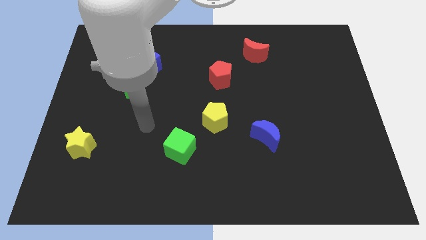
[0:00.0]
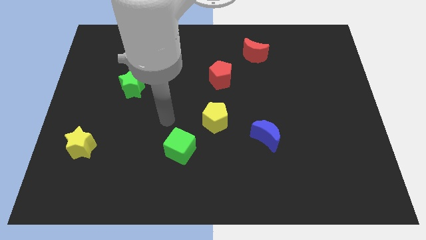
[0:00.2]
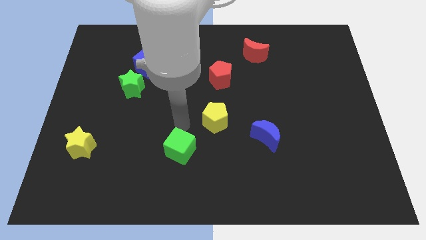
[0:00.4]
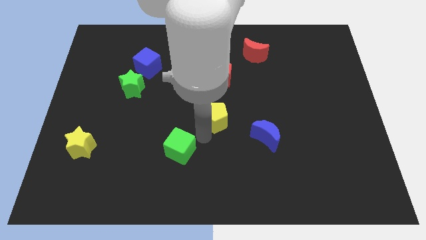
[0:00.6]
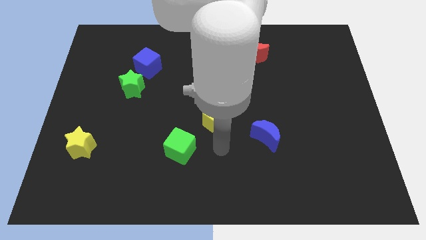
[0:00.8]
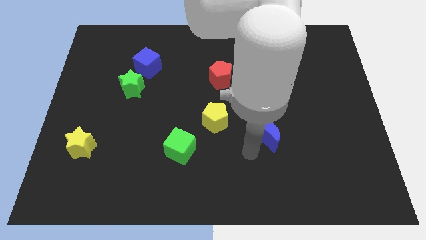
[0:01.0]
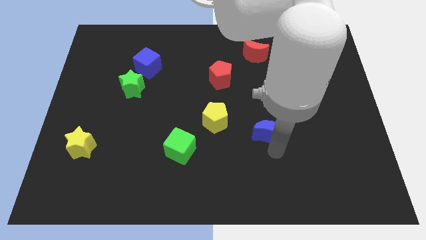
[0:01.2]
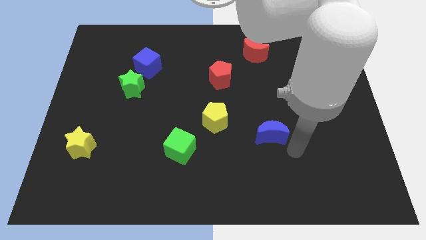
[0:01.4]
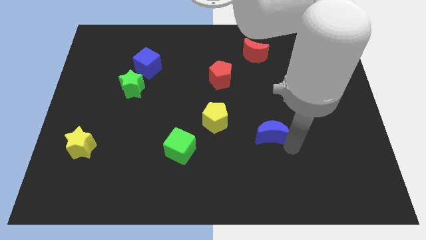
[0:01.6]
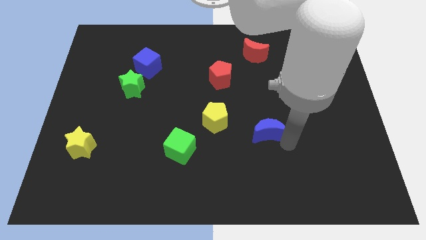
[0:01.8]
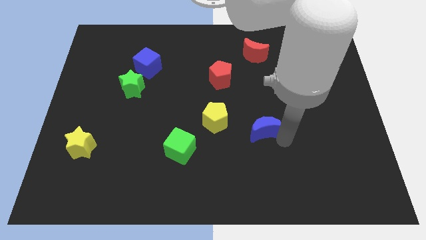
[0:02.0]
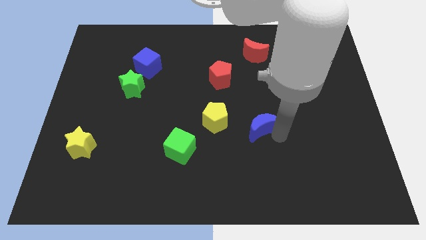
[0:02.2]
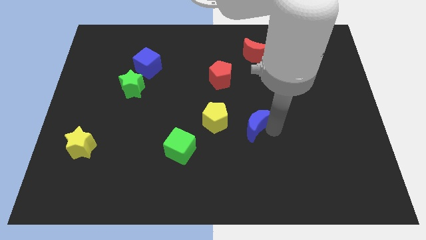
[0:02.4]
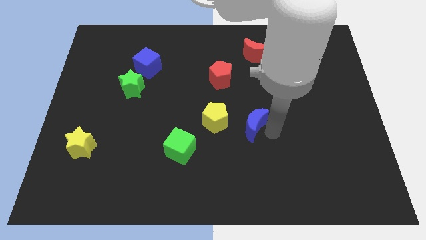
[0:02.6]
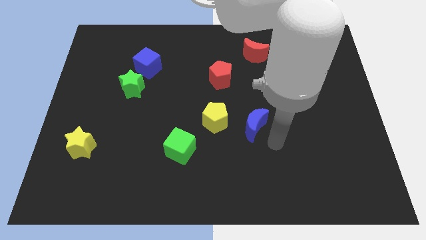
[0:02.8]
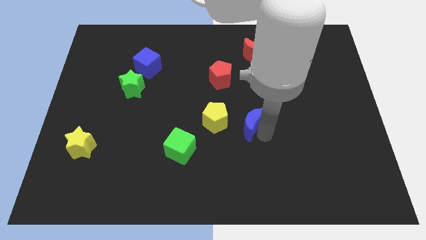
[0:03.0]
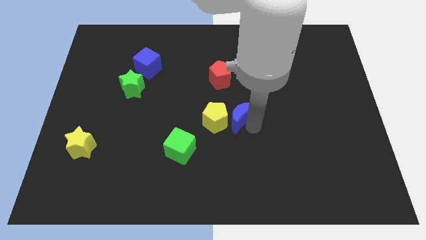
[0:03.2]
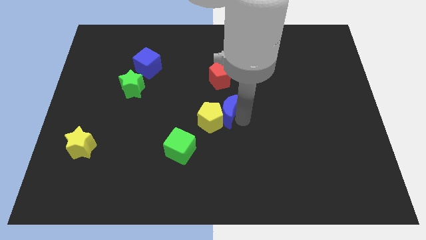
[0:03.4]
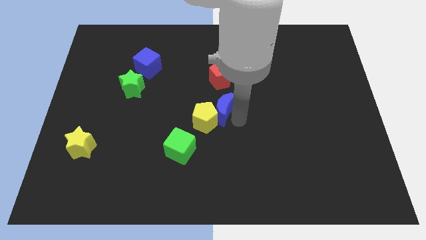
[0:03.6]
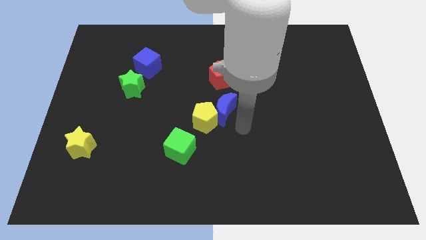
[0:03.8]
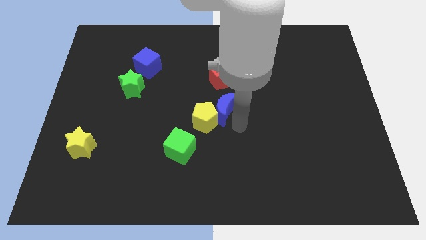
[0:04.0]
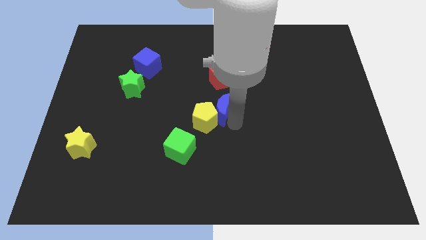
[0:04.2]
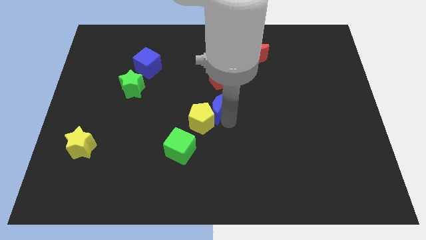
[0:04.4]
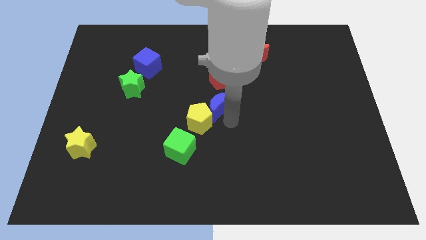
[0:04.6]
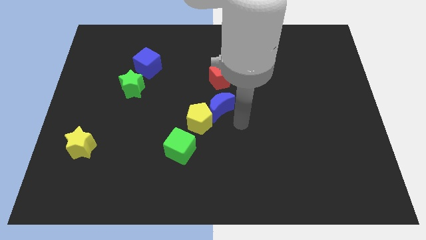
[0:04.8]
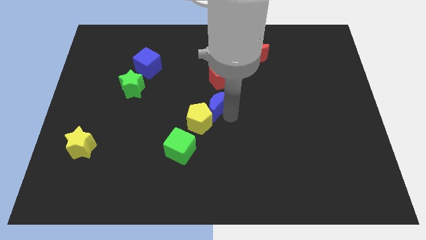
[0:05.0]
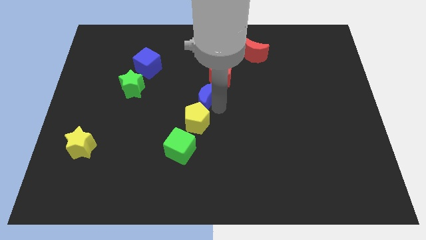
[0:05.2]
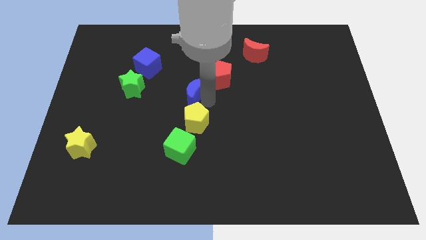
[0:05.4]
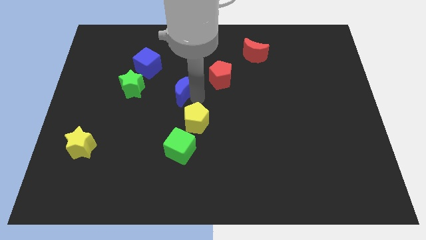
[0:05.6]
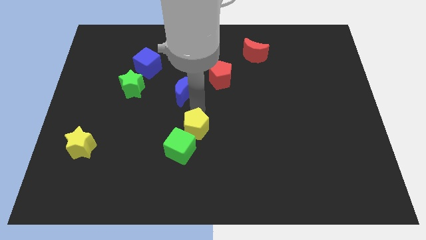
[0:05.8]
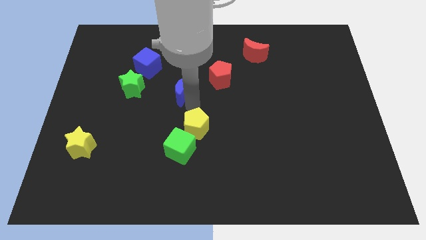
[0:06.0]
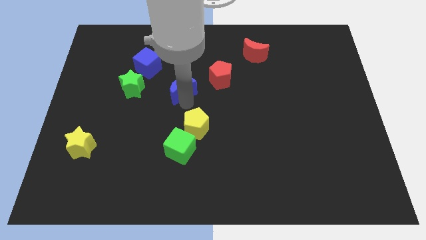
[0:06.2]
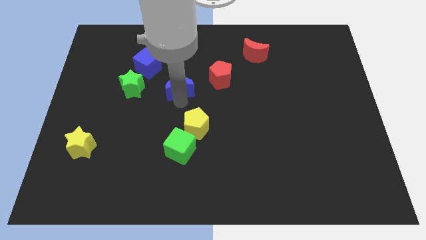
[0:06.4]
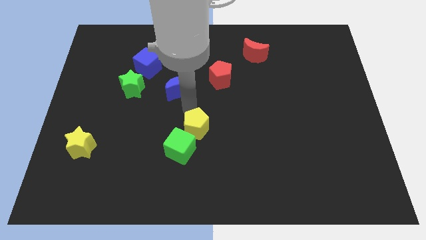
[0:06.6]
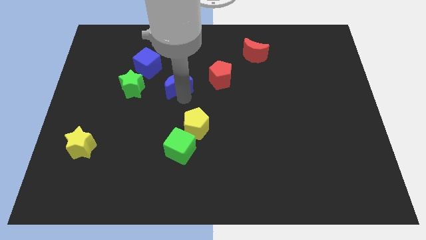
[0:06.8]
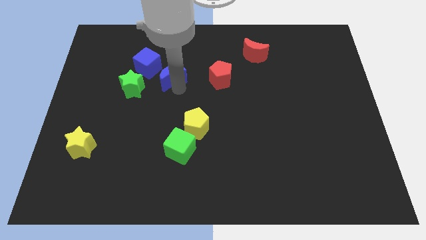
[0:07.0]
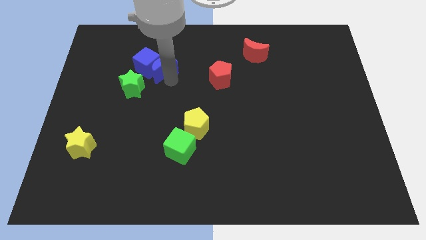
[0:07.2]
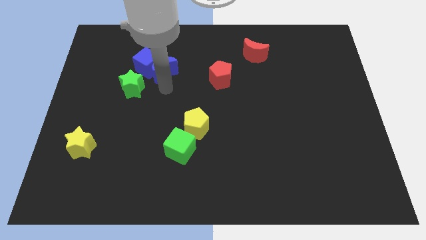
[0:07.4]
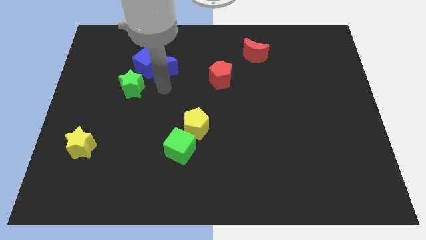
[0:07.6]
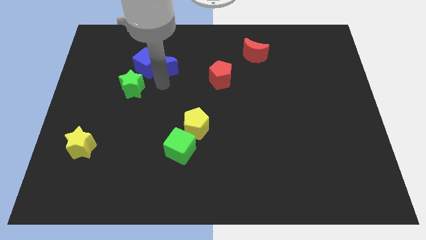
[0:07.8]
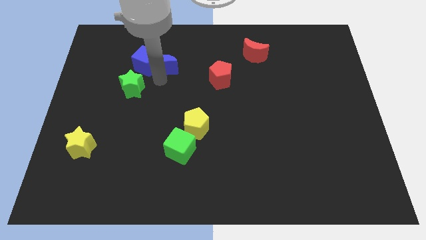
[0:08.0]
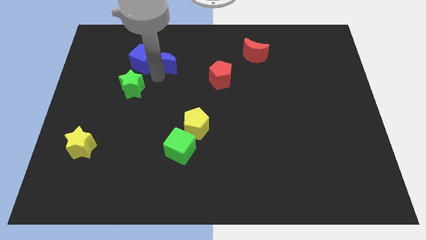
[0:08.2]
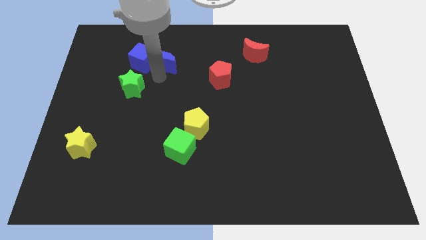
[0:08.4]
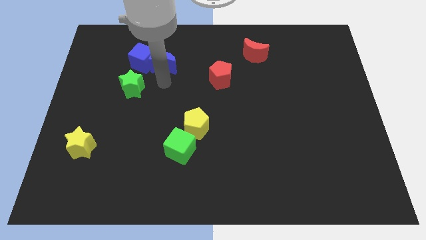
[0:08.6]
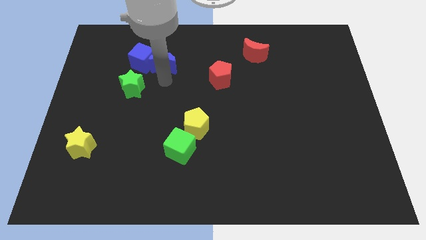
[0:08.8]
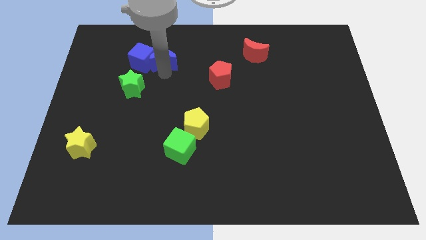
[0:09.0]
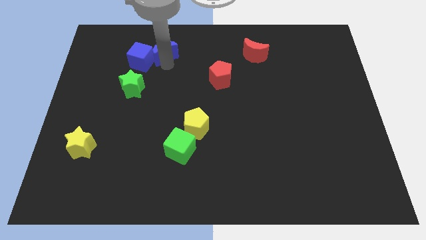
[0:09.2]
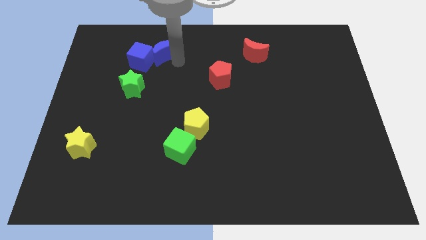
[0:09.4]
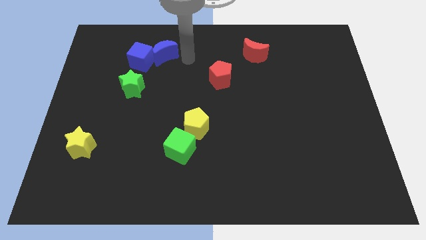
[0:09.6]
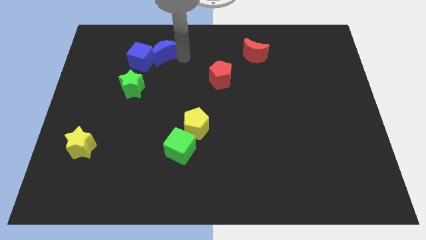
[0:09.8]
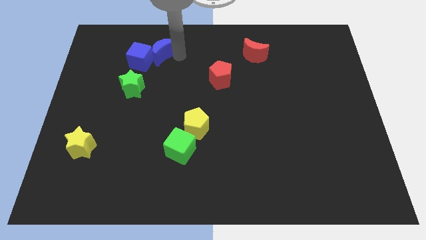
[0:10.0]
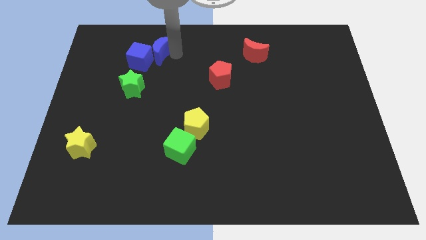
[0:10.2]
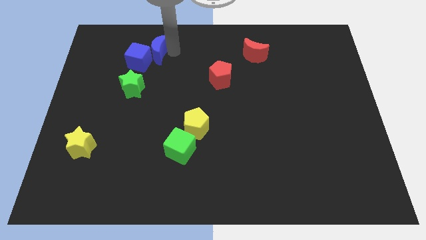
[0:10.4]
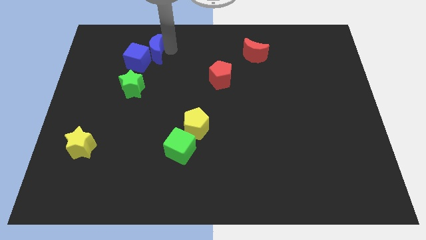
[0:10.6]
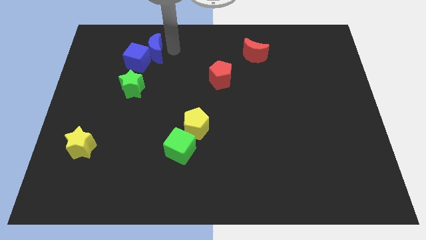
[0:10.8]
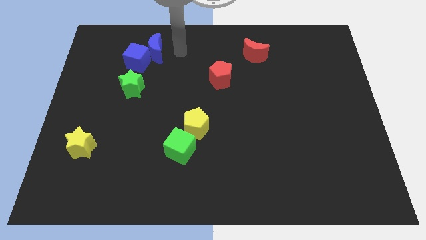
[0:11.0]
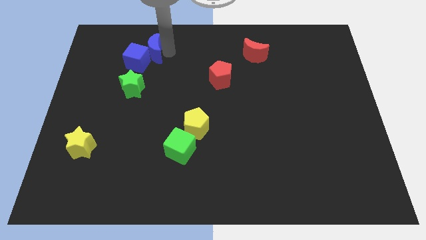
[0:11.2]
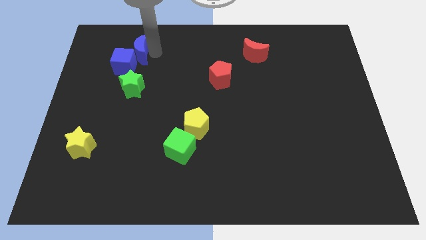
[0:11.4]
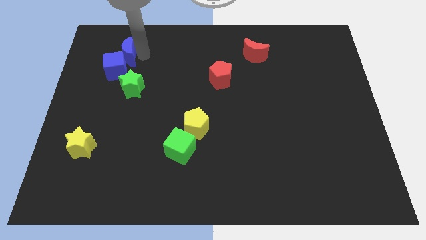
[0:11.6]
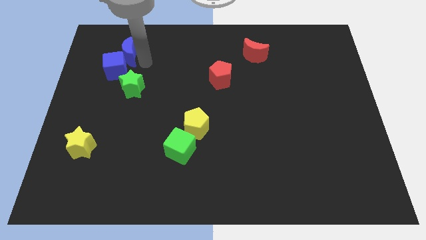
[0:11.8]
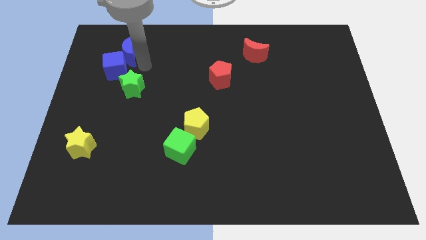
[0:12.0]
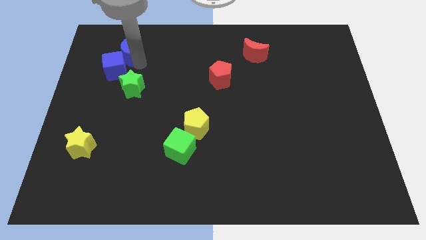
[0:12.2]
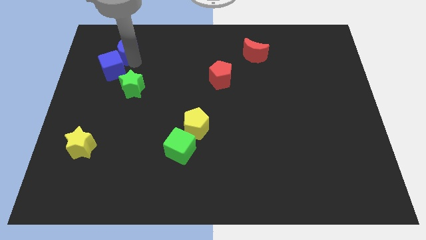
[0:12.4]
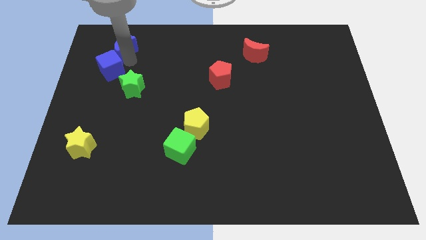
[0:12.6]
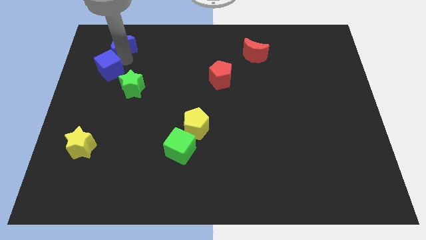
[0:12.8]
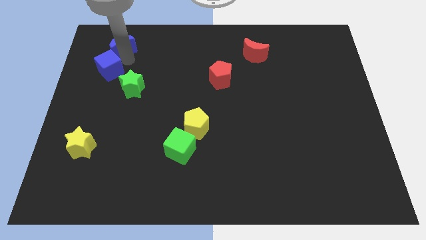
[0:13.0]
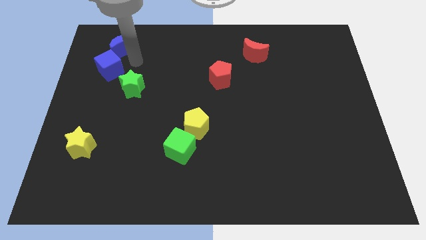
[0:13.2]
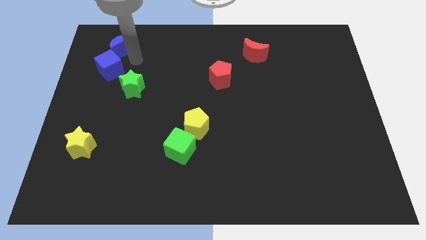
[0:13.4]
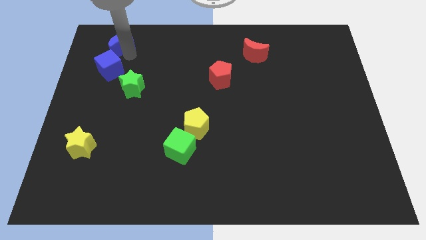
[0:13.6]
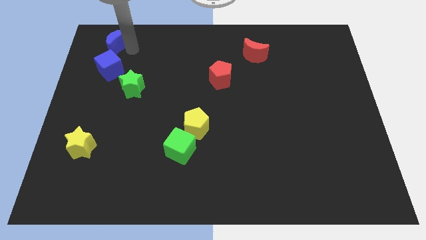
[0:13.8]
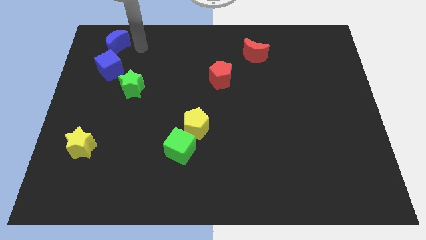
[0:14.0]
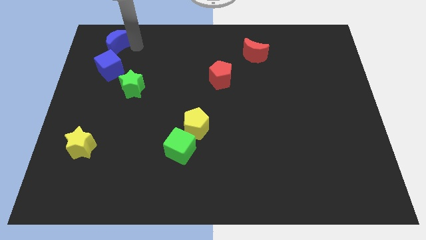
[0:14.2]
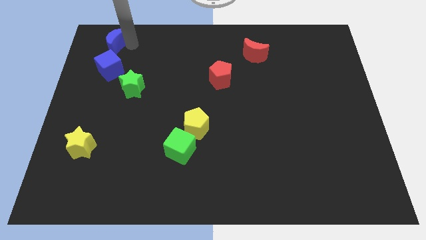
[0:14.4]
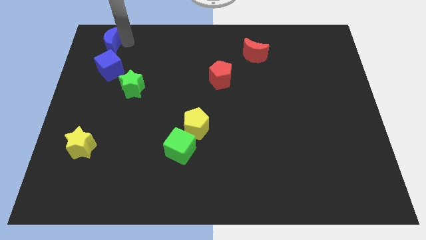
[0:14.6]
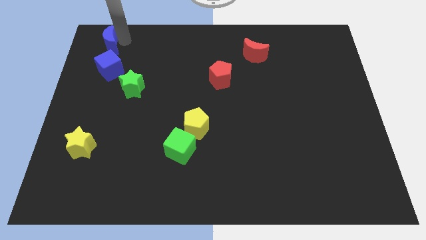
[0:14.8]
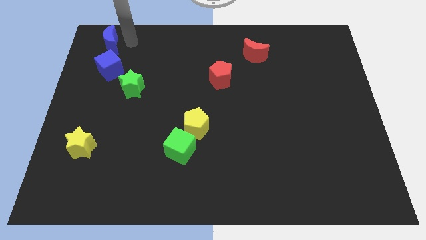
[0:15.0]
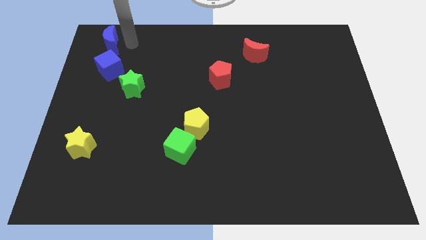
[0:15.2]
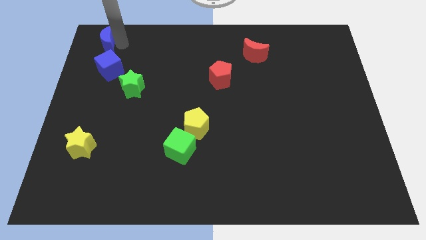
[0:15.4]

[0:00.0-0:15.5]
slide the blue moon to the upper left corner
